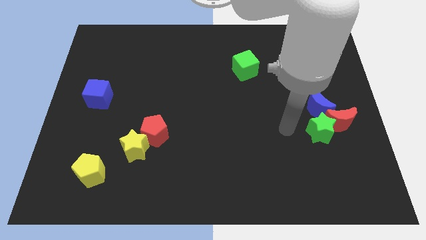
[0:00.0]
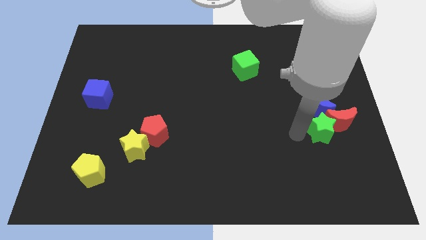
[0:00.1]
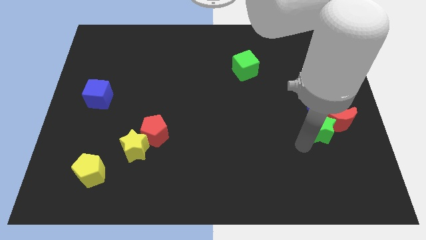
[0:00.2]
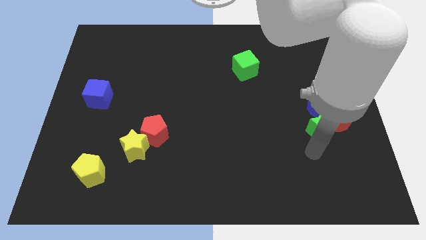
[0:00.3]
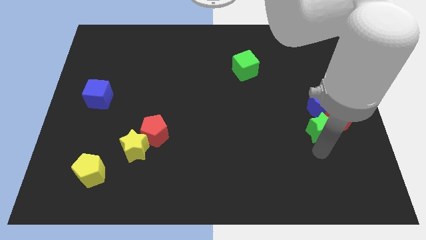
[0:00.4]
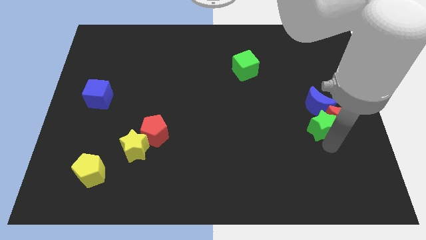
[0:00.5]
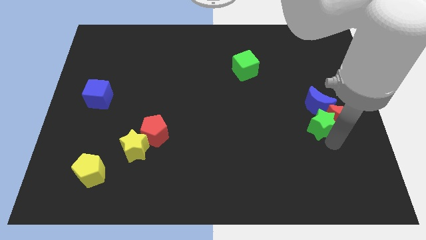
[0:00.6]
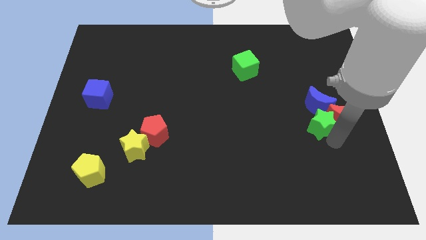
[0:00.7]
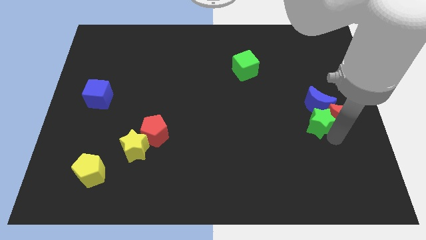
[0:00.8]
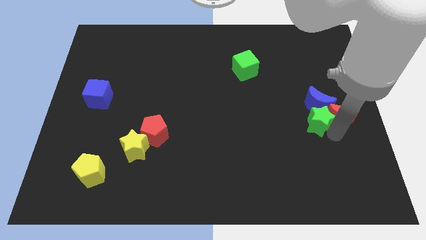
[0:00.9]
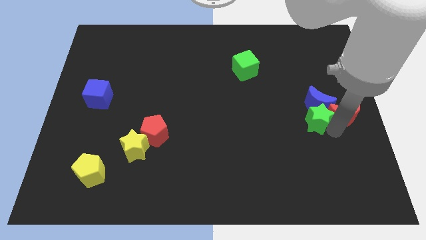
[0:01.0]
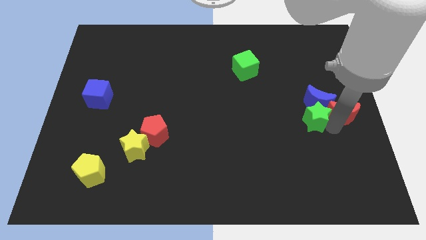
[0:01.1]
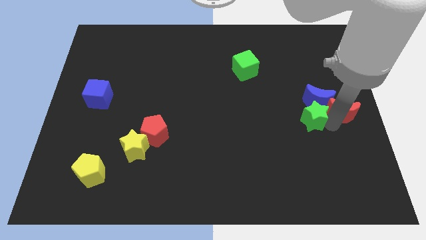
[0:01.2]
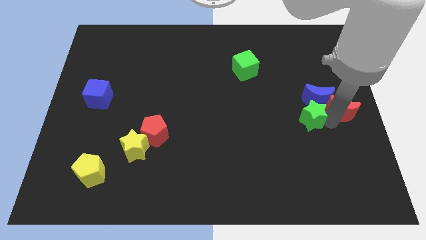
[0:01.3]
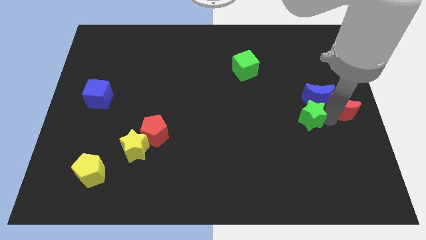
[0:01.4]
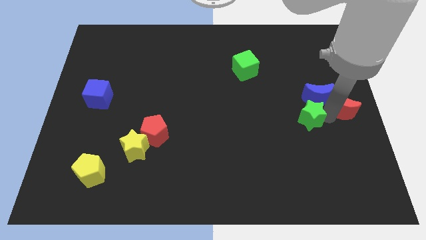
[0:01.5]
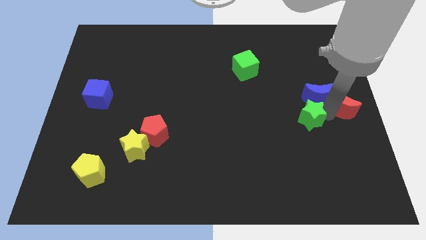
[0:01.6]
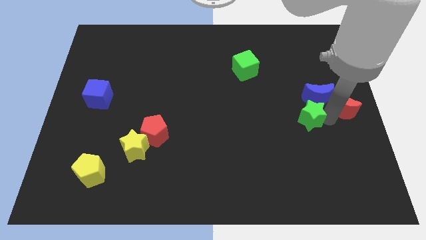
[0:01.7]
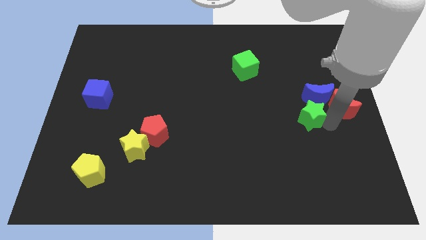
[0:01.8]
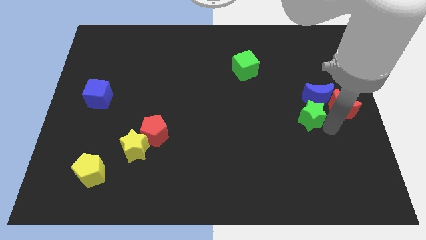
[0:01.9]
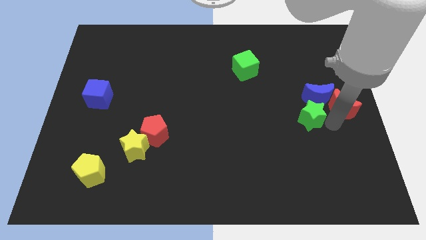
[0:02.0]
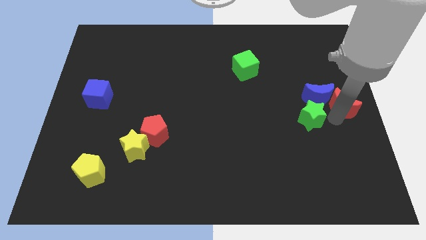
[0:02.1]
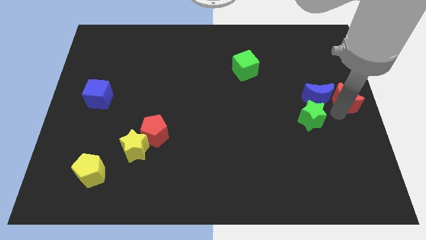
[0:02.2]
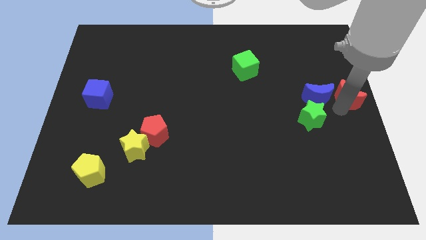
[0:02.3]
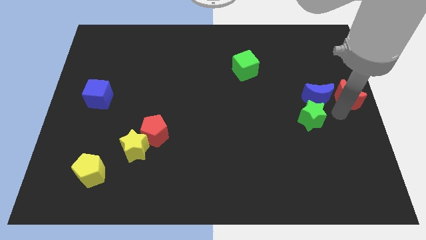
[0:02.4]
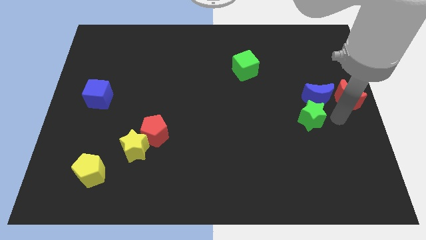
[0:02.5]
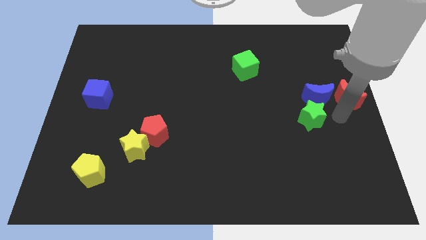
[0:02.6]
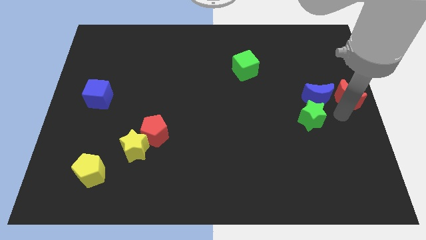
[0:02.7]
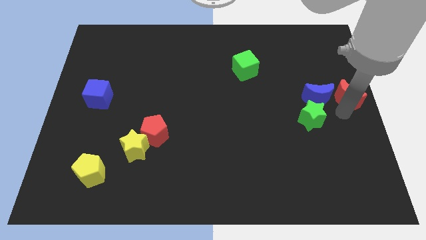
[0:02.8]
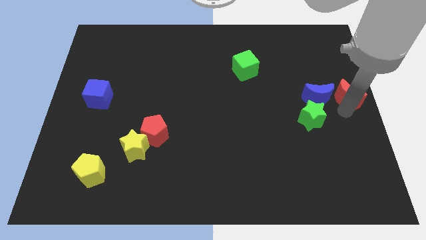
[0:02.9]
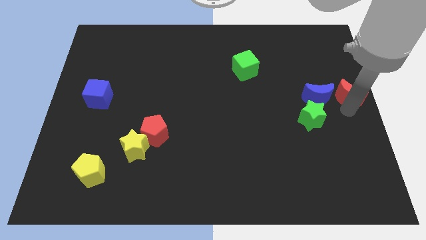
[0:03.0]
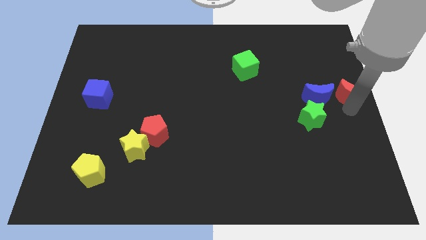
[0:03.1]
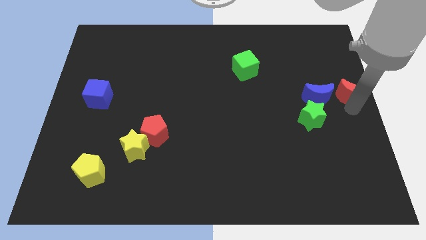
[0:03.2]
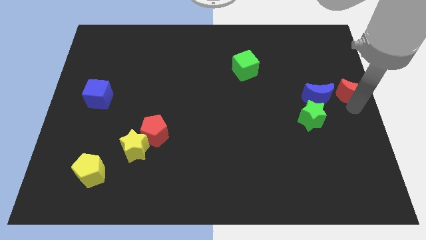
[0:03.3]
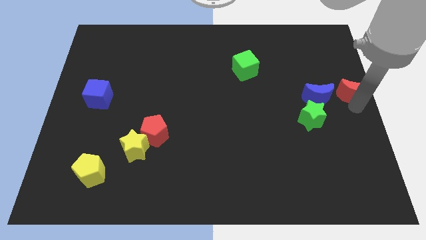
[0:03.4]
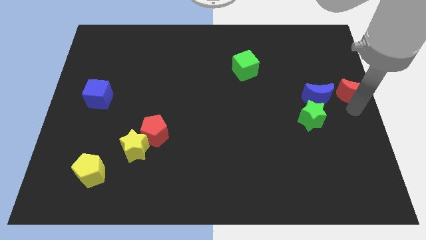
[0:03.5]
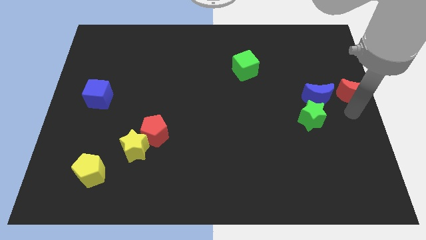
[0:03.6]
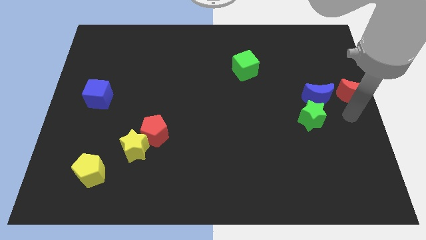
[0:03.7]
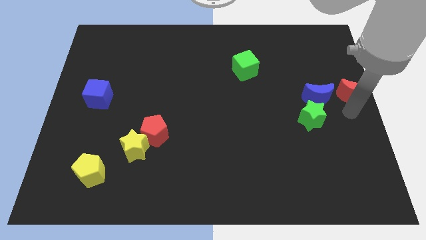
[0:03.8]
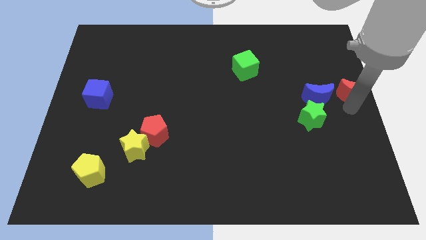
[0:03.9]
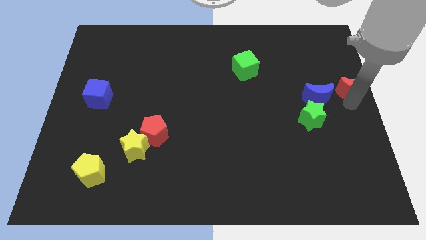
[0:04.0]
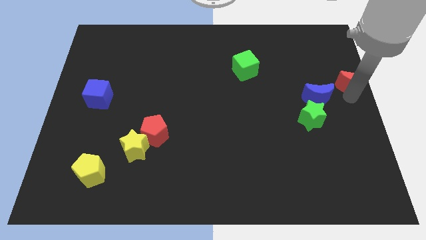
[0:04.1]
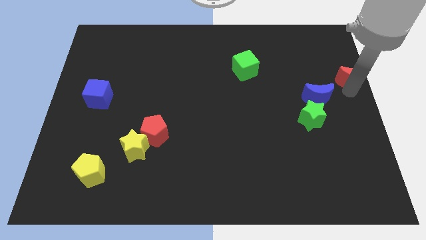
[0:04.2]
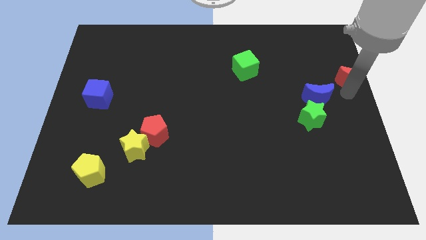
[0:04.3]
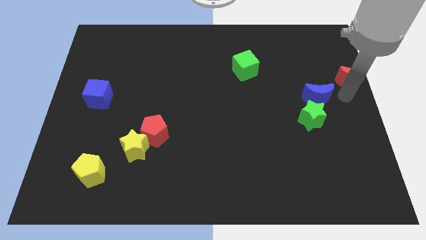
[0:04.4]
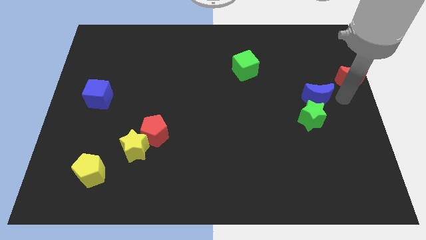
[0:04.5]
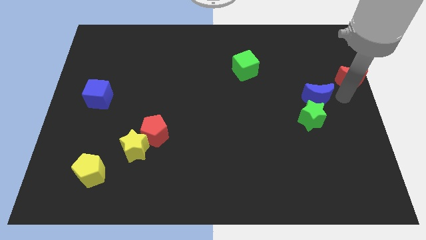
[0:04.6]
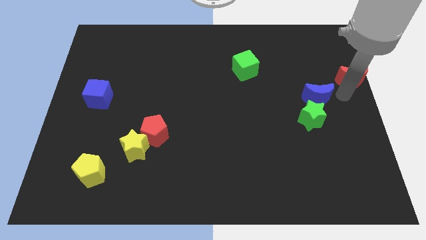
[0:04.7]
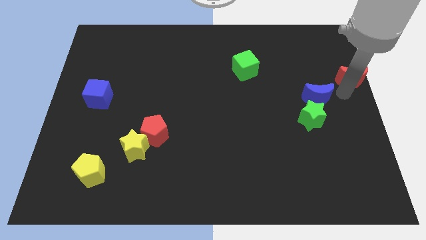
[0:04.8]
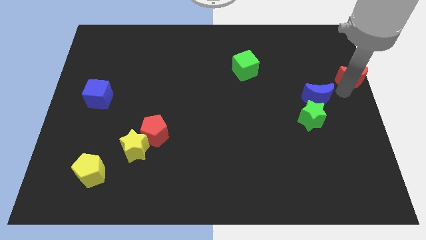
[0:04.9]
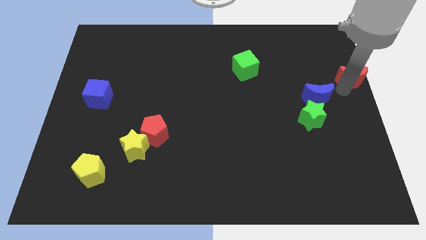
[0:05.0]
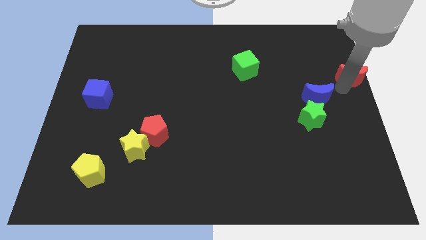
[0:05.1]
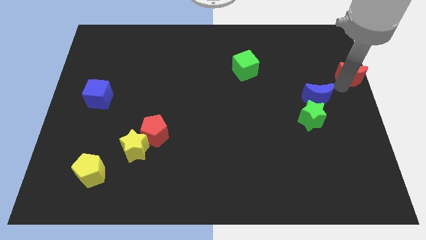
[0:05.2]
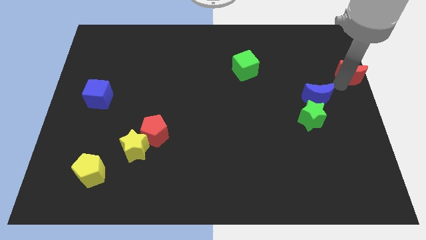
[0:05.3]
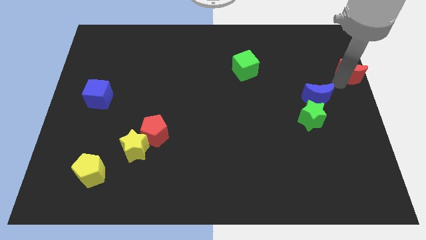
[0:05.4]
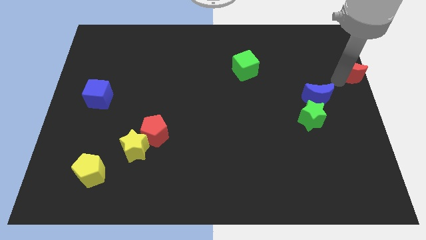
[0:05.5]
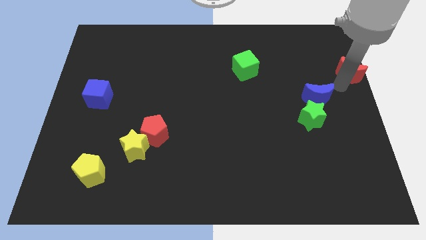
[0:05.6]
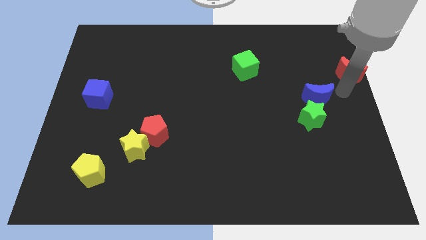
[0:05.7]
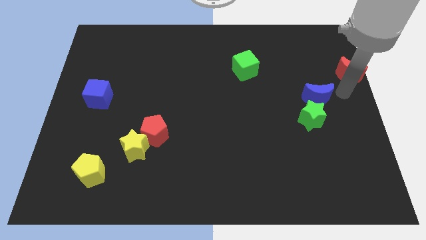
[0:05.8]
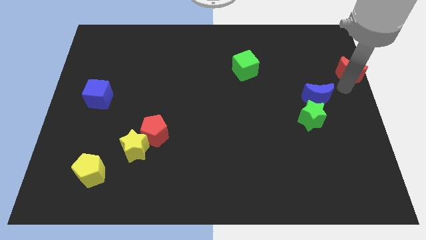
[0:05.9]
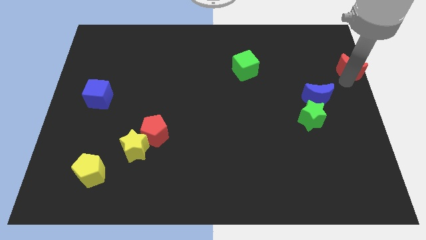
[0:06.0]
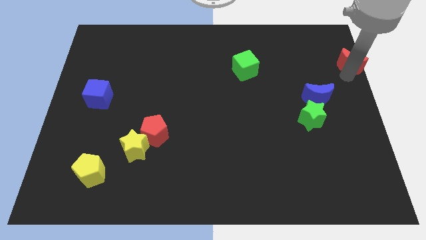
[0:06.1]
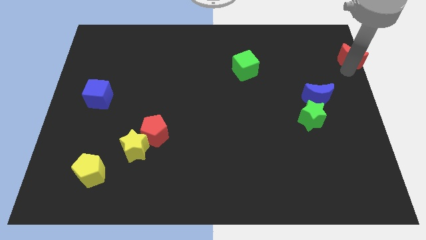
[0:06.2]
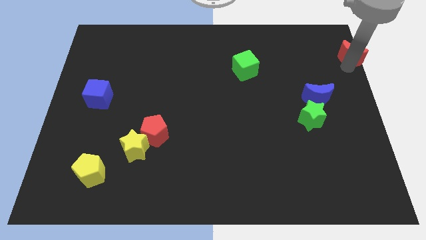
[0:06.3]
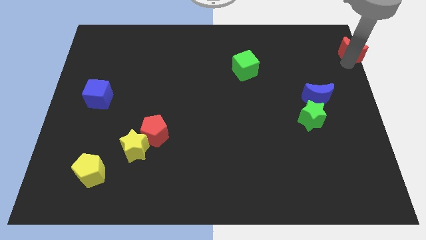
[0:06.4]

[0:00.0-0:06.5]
push the red moon to the top right
